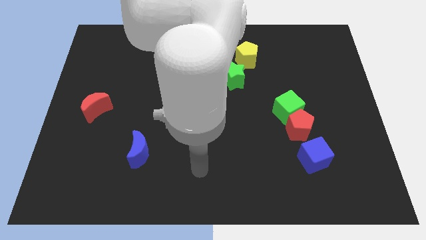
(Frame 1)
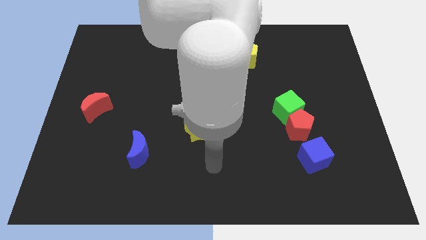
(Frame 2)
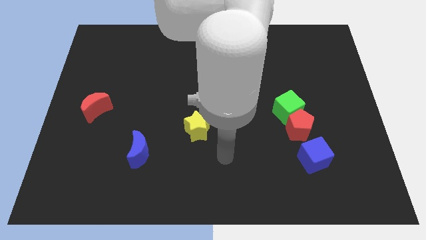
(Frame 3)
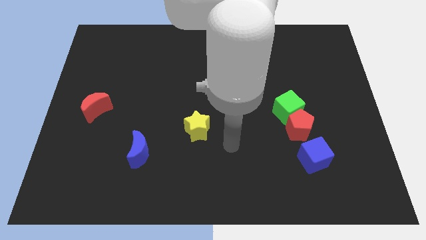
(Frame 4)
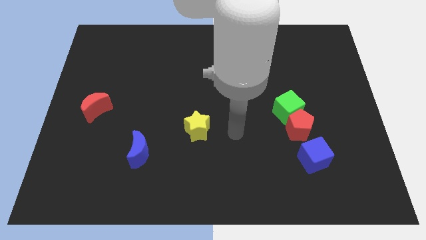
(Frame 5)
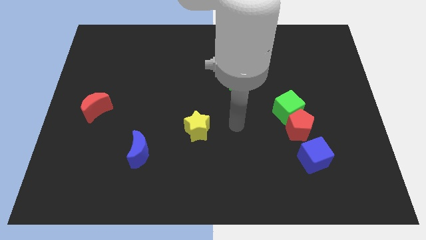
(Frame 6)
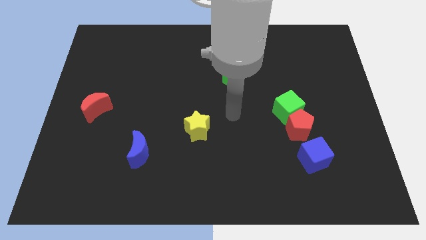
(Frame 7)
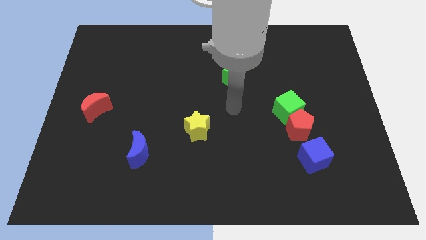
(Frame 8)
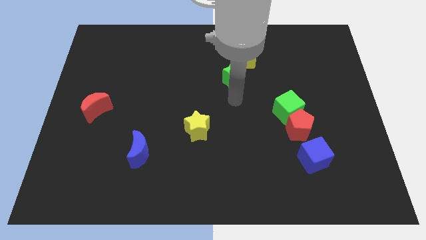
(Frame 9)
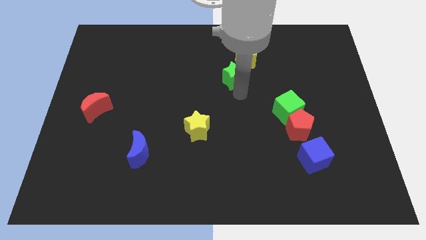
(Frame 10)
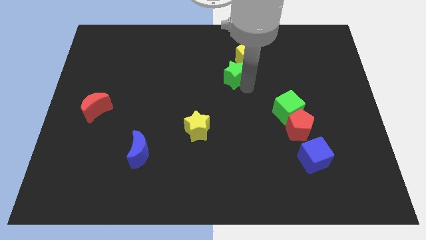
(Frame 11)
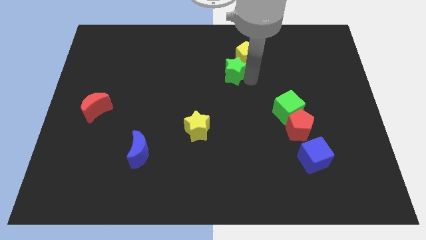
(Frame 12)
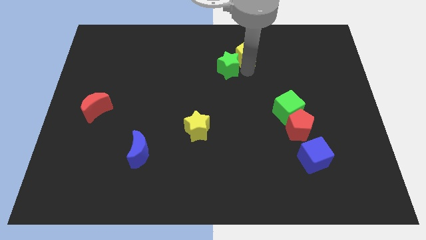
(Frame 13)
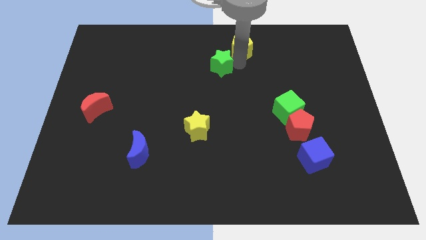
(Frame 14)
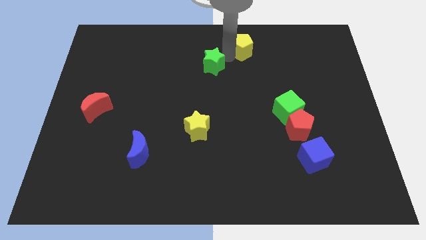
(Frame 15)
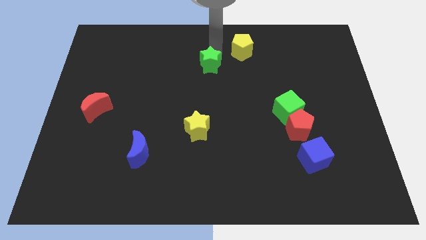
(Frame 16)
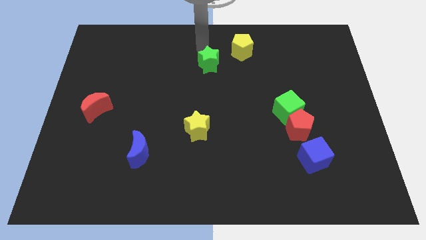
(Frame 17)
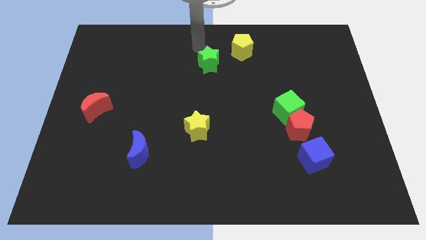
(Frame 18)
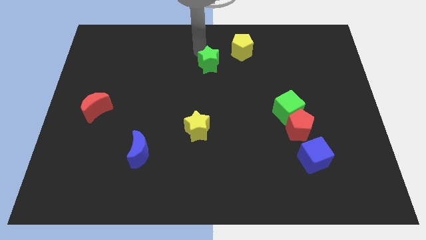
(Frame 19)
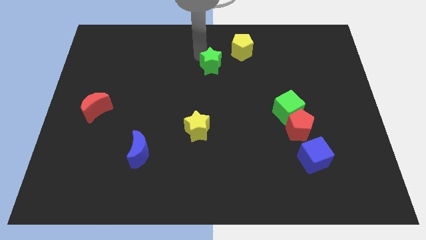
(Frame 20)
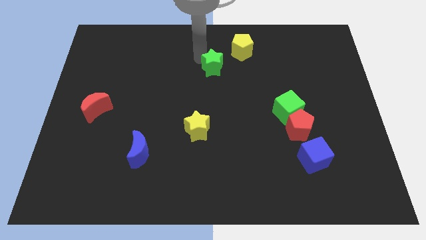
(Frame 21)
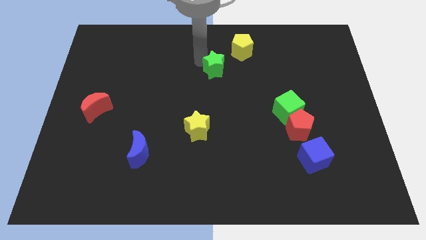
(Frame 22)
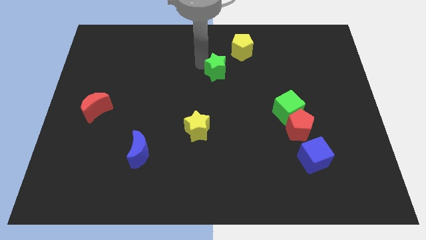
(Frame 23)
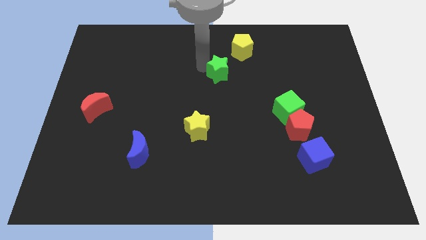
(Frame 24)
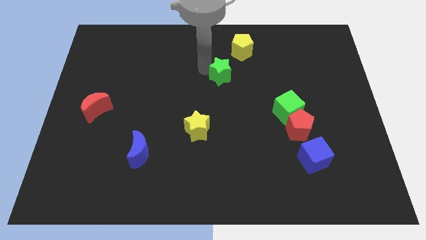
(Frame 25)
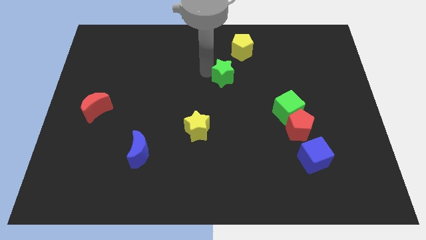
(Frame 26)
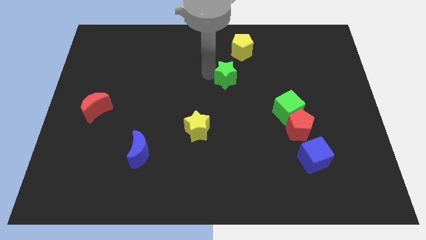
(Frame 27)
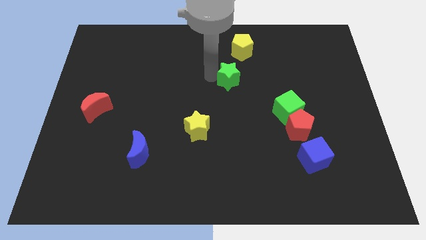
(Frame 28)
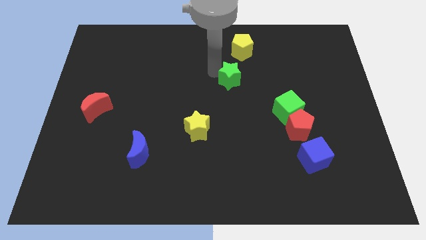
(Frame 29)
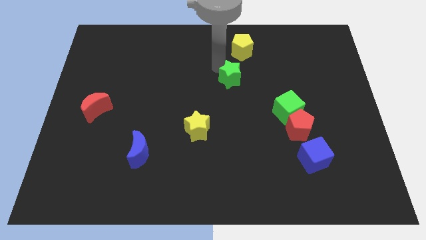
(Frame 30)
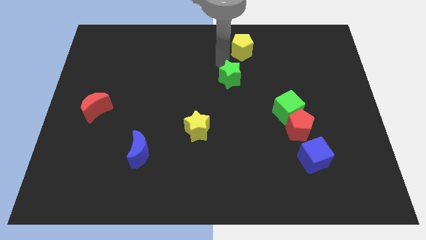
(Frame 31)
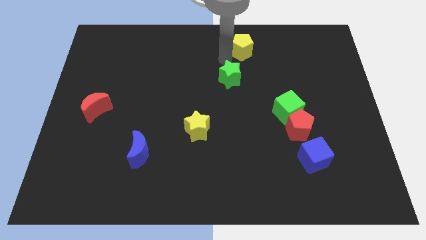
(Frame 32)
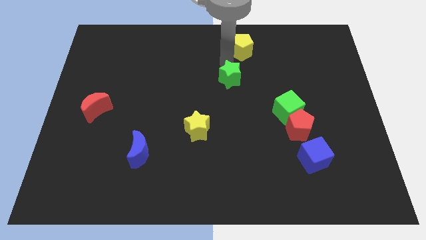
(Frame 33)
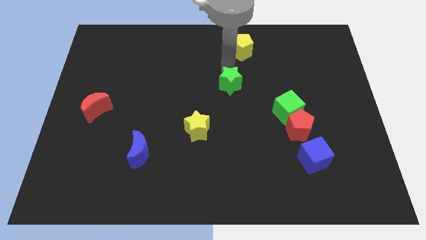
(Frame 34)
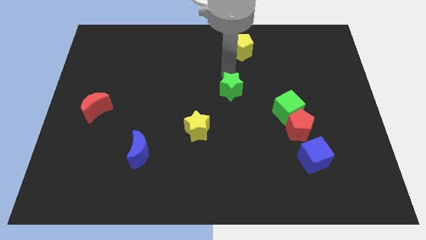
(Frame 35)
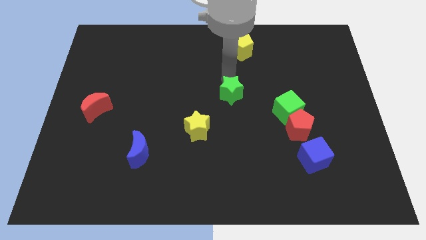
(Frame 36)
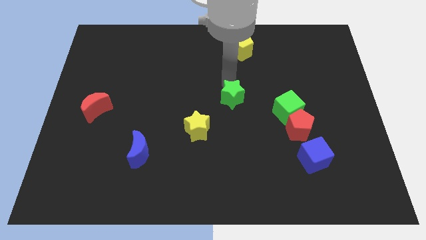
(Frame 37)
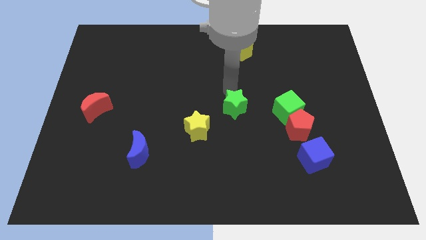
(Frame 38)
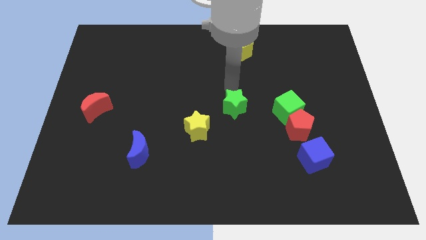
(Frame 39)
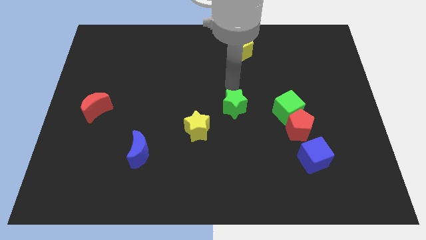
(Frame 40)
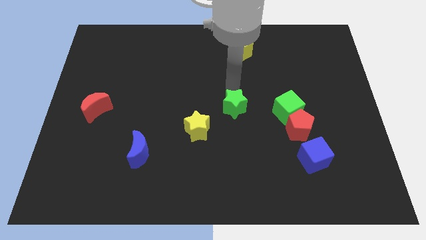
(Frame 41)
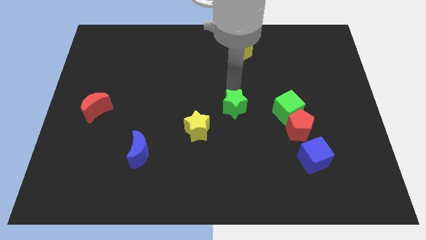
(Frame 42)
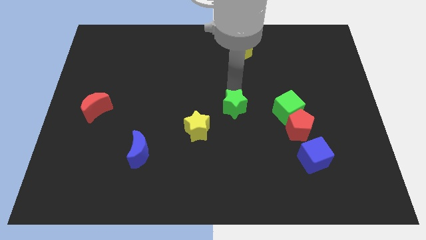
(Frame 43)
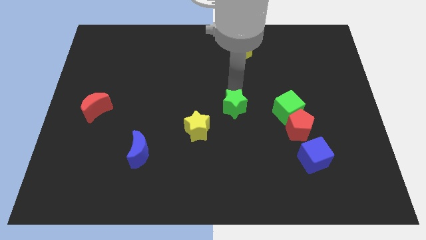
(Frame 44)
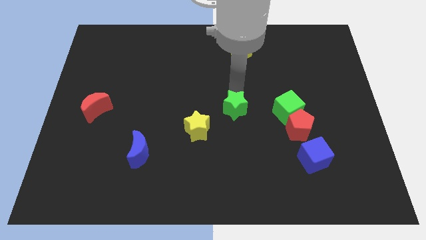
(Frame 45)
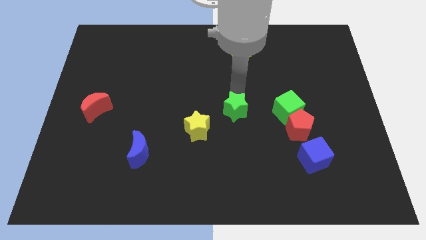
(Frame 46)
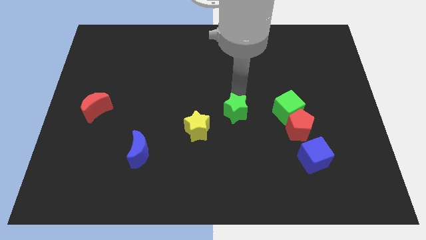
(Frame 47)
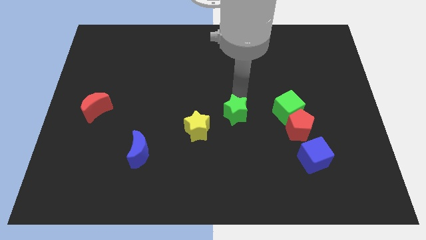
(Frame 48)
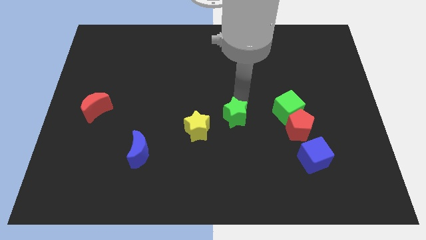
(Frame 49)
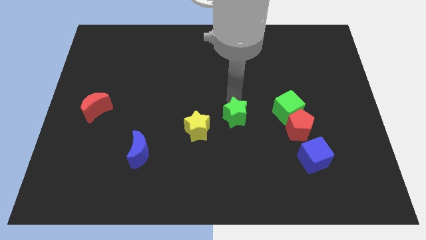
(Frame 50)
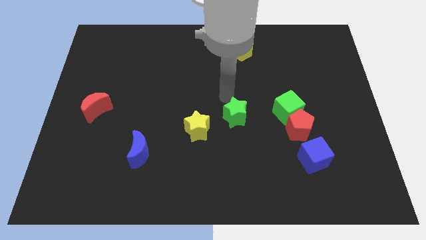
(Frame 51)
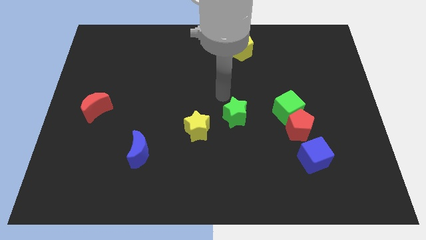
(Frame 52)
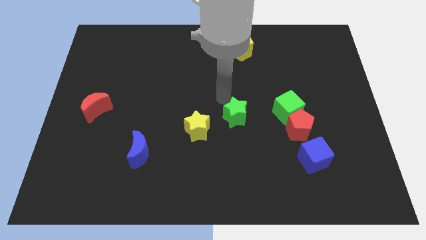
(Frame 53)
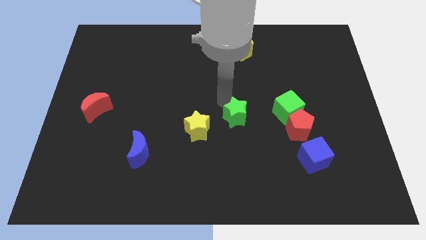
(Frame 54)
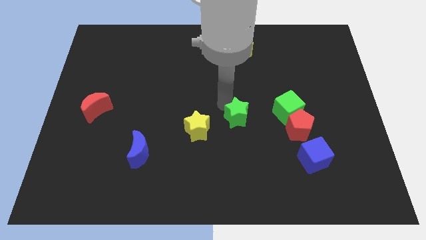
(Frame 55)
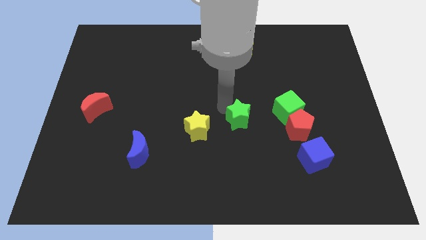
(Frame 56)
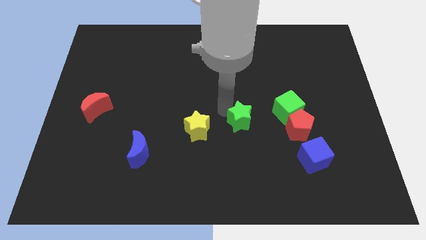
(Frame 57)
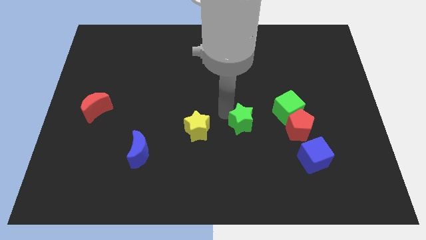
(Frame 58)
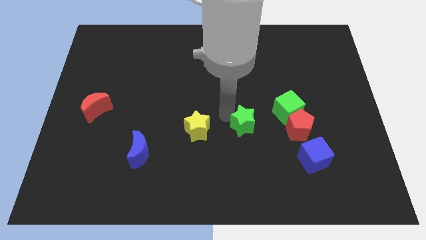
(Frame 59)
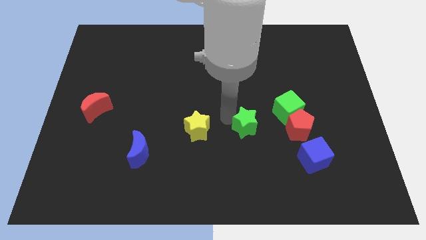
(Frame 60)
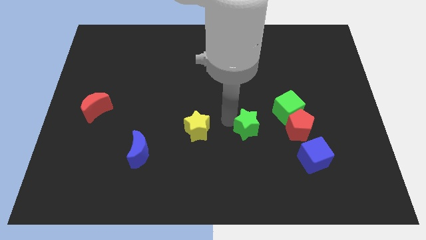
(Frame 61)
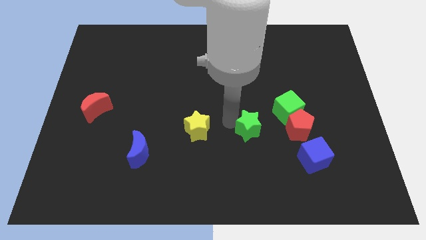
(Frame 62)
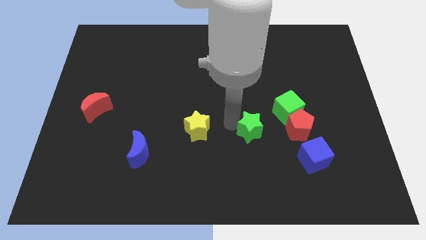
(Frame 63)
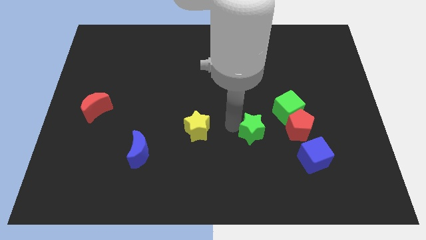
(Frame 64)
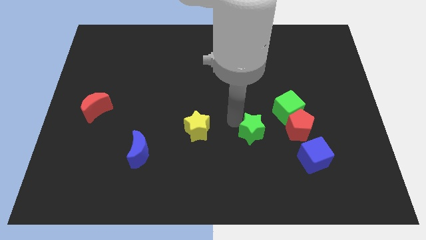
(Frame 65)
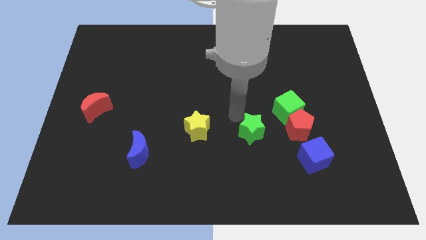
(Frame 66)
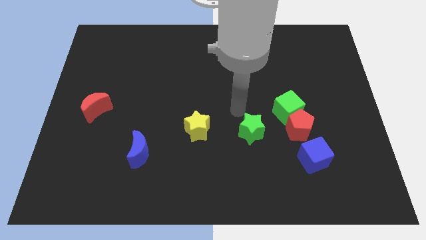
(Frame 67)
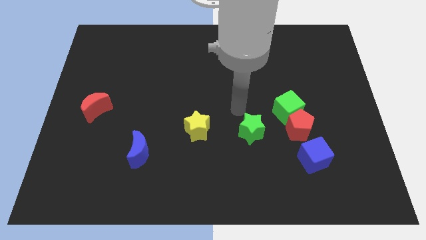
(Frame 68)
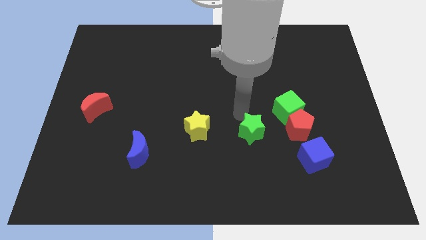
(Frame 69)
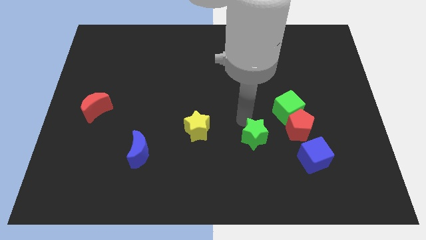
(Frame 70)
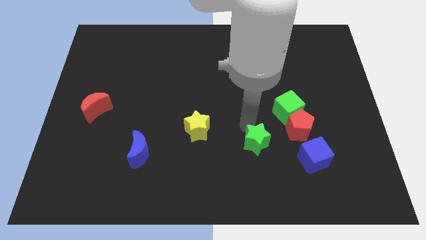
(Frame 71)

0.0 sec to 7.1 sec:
slide the green star to the left of the blue cube
